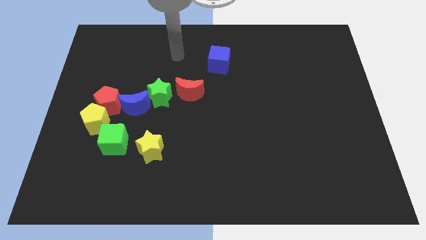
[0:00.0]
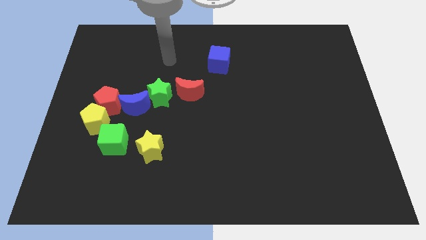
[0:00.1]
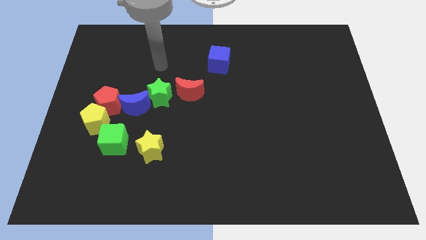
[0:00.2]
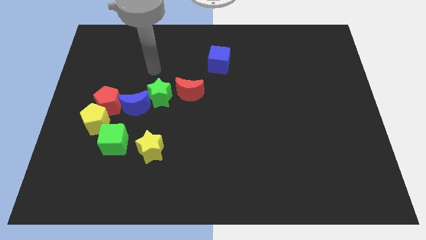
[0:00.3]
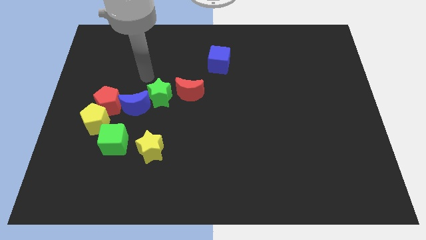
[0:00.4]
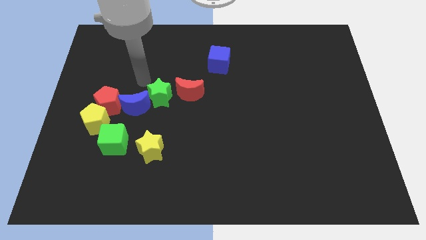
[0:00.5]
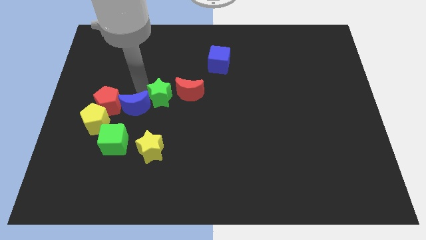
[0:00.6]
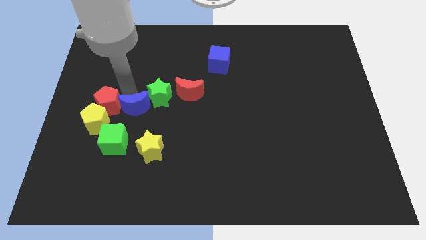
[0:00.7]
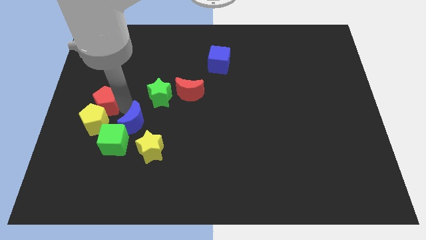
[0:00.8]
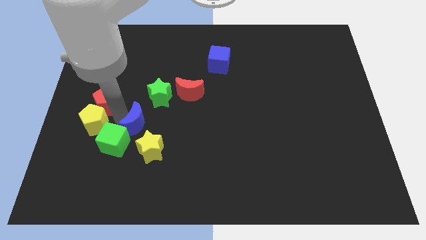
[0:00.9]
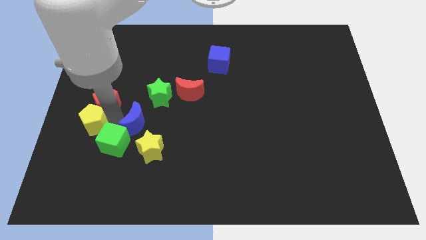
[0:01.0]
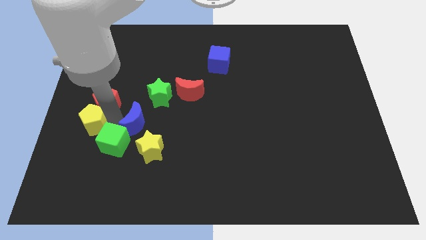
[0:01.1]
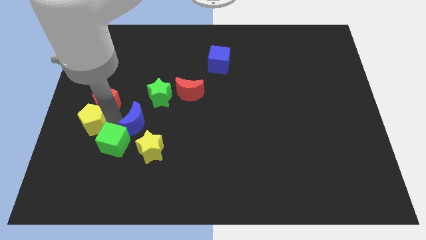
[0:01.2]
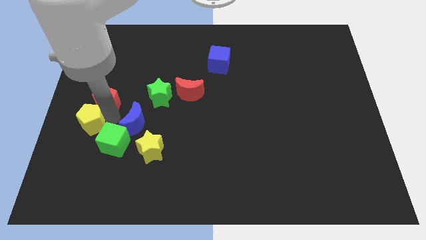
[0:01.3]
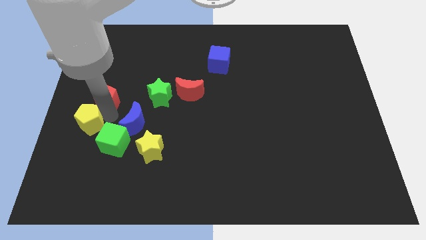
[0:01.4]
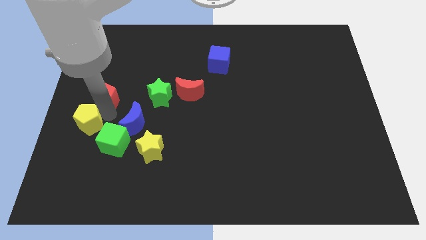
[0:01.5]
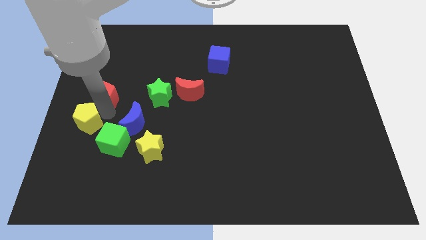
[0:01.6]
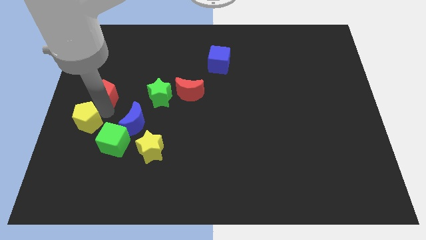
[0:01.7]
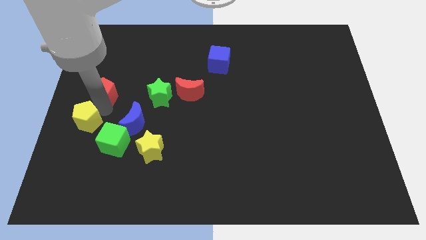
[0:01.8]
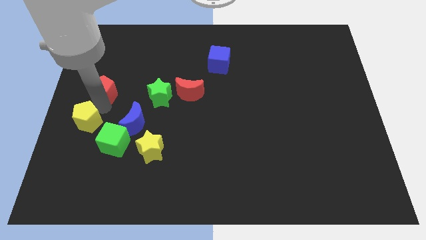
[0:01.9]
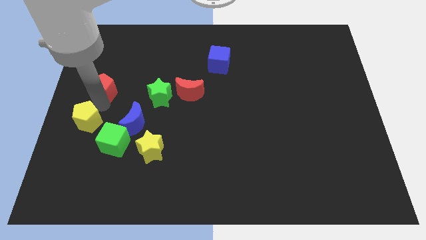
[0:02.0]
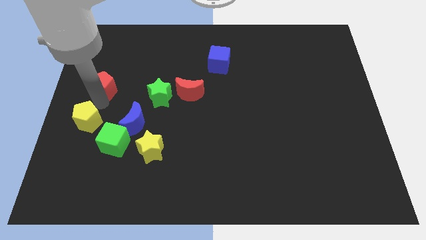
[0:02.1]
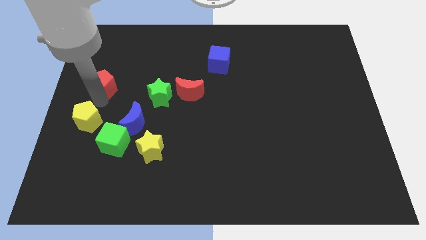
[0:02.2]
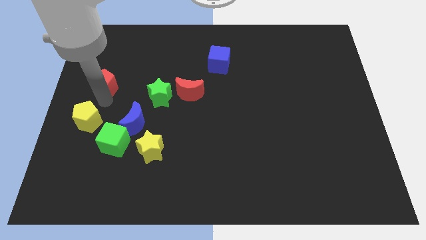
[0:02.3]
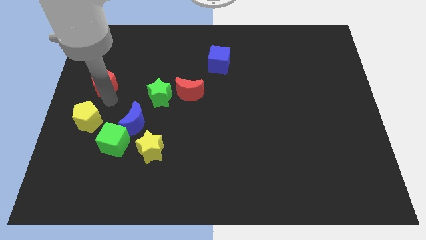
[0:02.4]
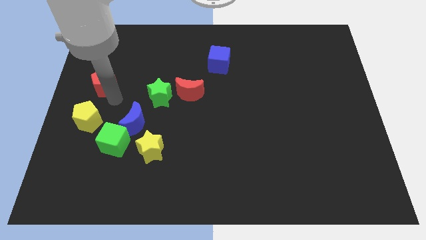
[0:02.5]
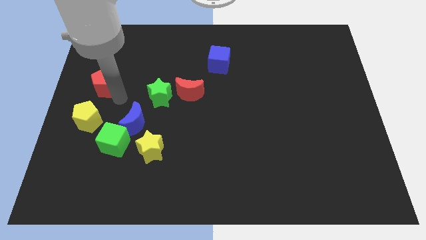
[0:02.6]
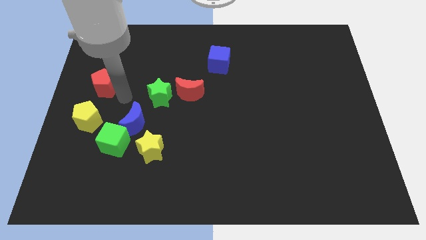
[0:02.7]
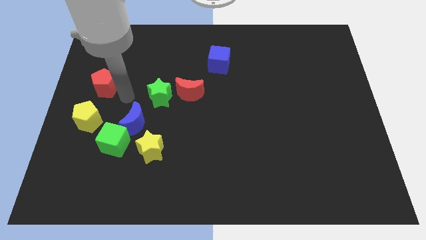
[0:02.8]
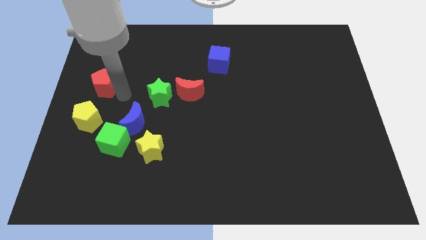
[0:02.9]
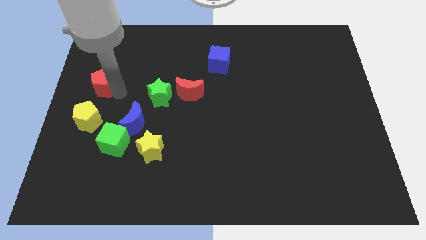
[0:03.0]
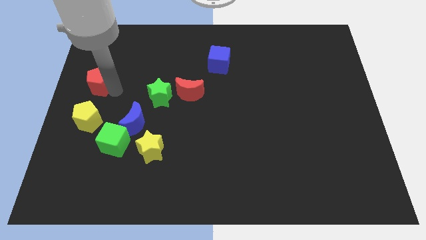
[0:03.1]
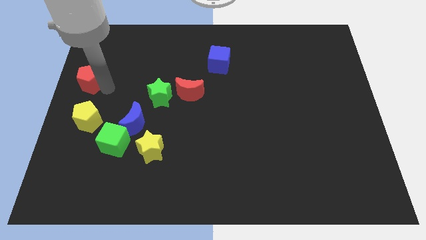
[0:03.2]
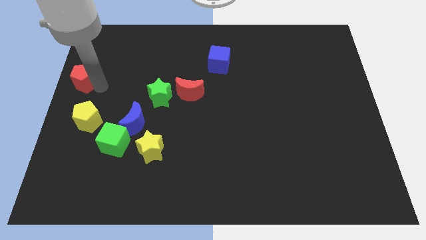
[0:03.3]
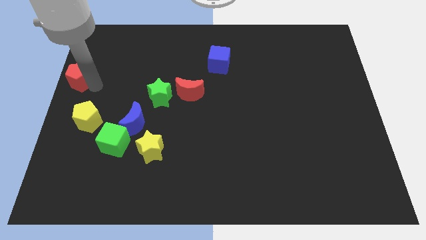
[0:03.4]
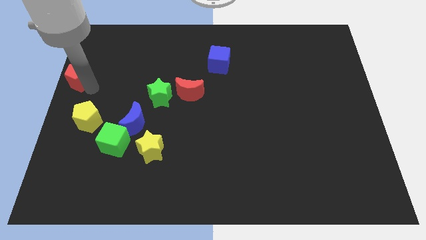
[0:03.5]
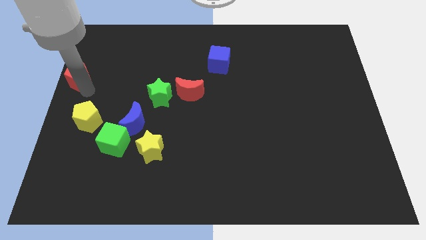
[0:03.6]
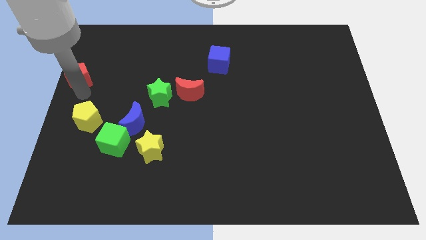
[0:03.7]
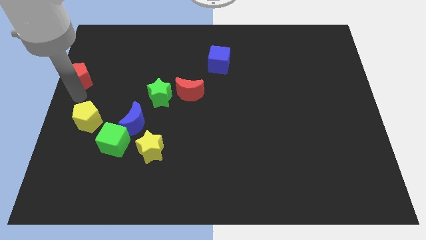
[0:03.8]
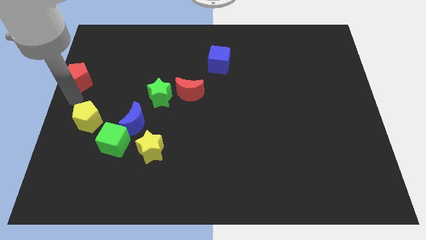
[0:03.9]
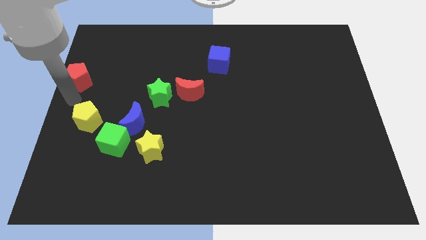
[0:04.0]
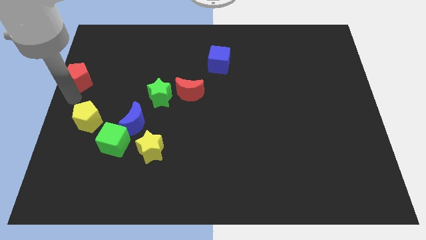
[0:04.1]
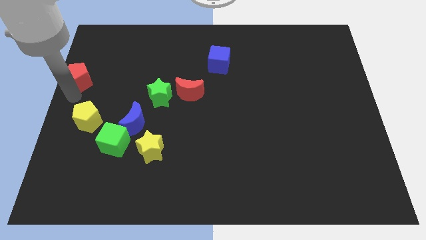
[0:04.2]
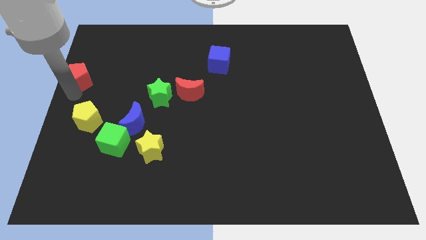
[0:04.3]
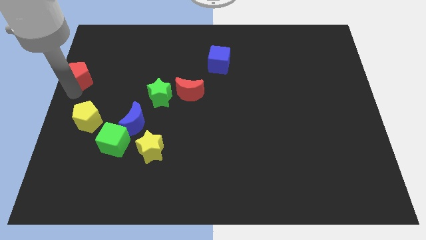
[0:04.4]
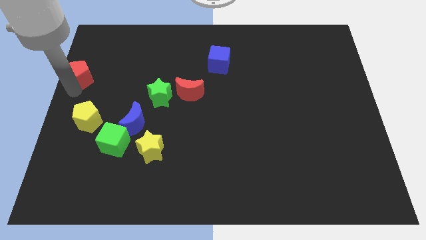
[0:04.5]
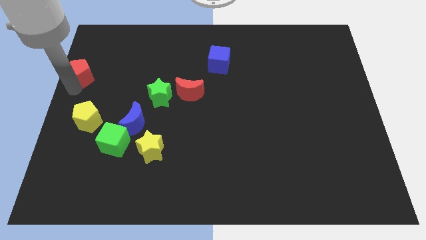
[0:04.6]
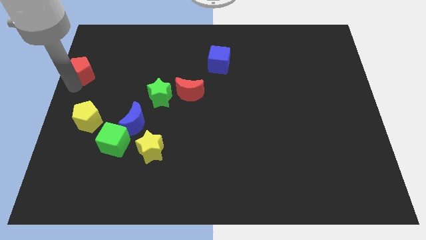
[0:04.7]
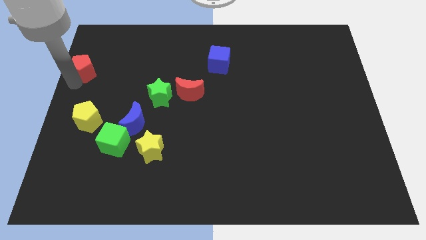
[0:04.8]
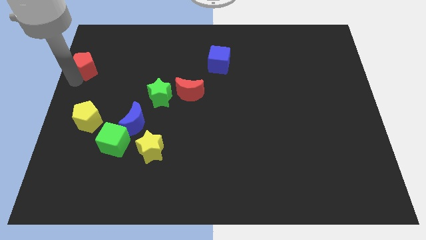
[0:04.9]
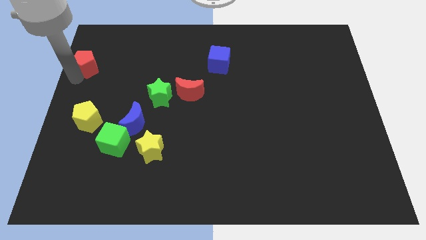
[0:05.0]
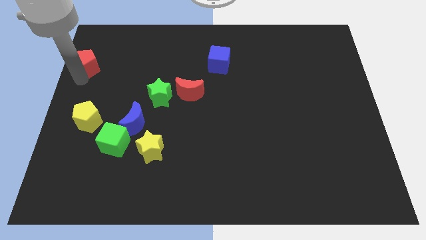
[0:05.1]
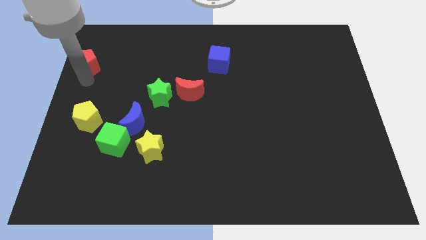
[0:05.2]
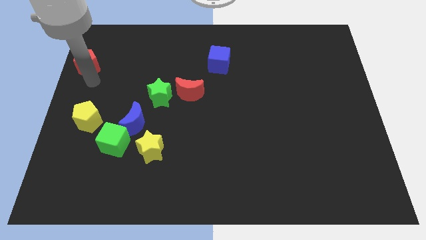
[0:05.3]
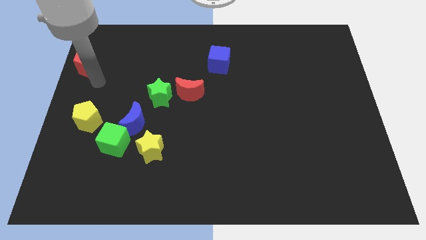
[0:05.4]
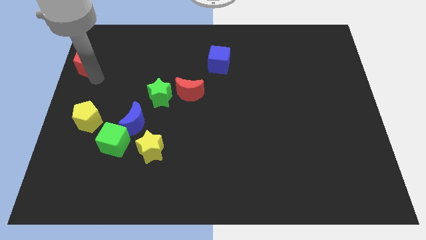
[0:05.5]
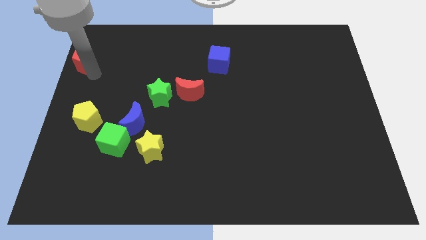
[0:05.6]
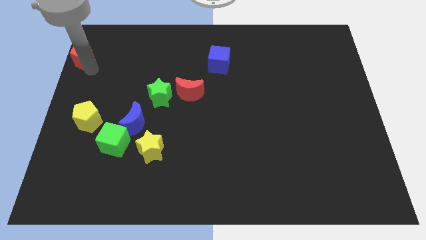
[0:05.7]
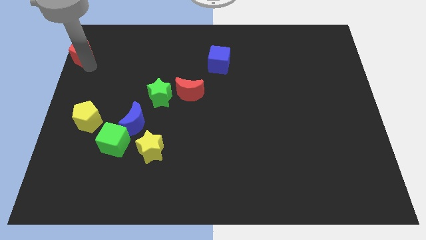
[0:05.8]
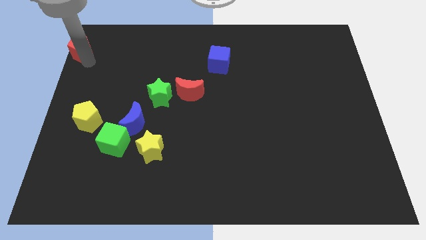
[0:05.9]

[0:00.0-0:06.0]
put the red pentagon to the top left corner

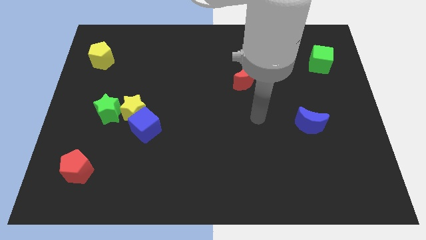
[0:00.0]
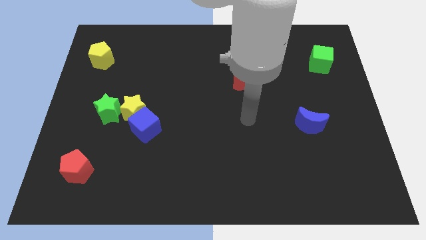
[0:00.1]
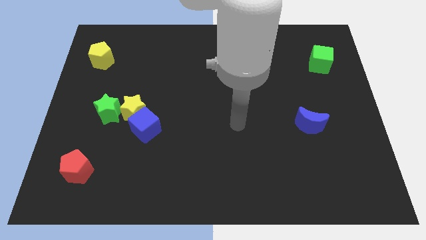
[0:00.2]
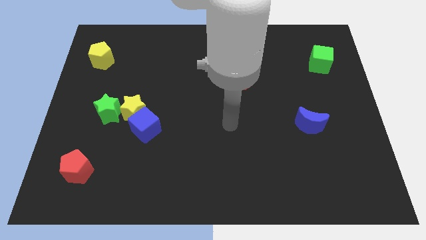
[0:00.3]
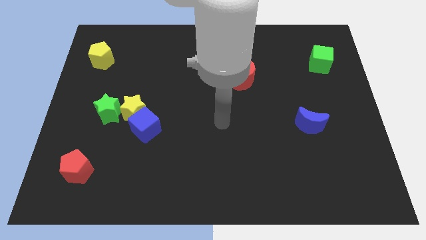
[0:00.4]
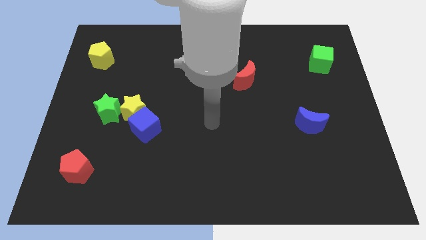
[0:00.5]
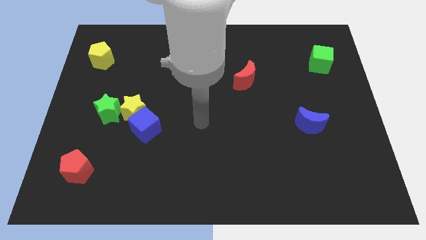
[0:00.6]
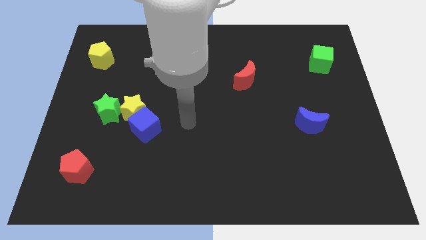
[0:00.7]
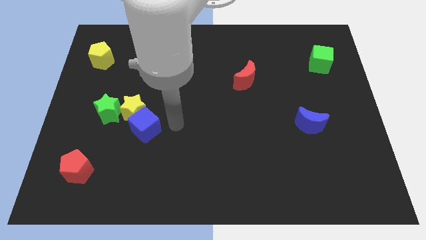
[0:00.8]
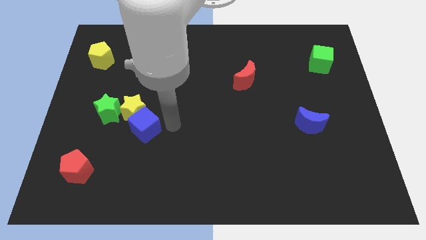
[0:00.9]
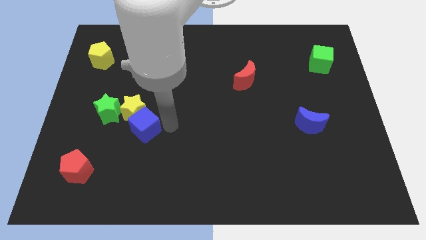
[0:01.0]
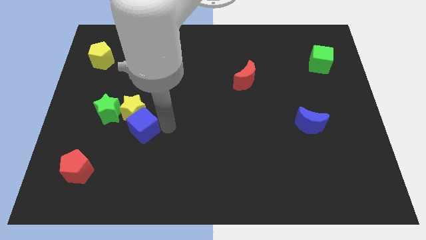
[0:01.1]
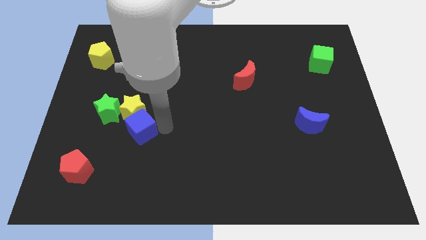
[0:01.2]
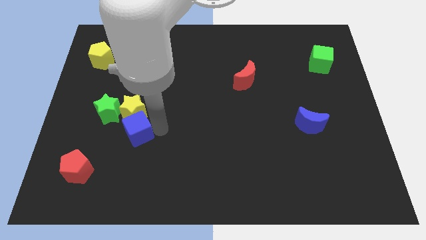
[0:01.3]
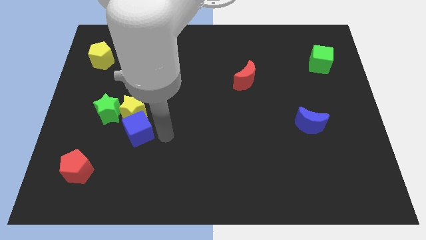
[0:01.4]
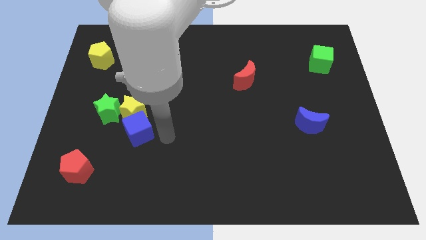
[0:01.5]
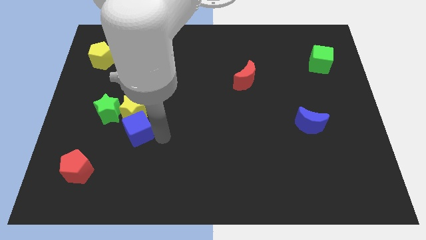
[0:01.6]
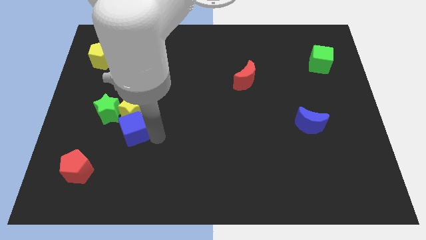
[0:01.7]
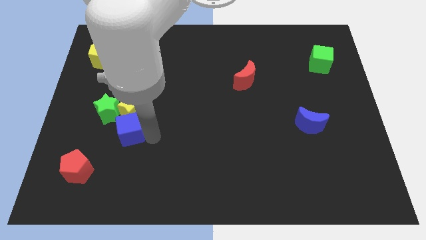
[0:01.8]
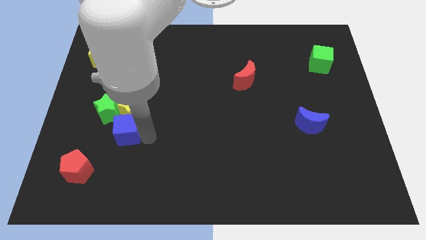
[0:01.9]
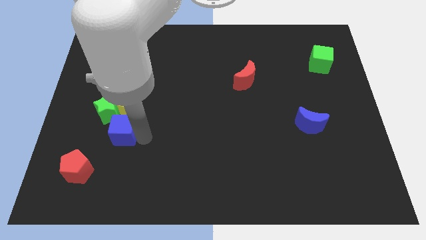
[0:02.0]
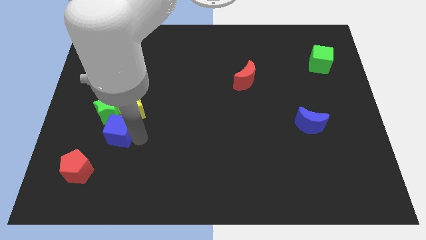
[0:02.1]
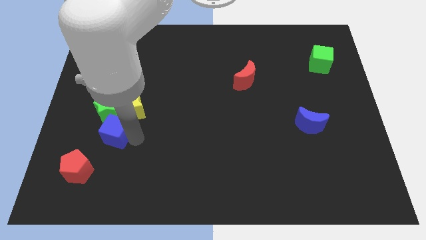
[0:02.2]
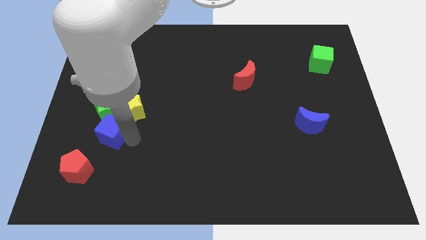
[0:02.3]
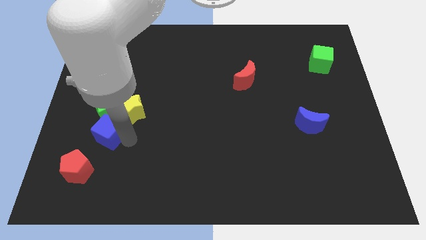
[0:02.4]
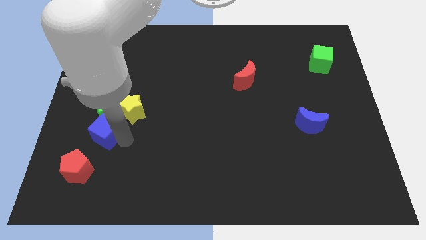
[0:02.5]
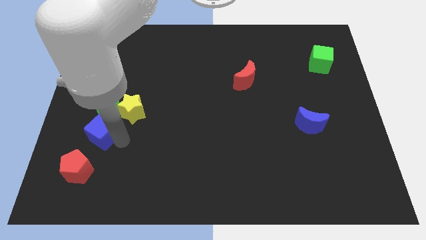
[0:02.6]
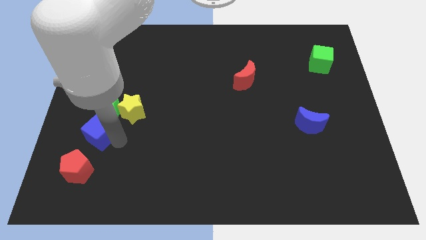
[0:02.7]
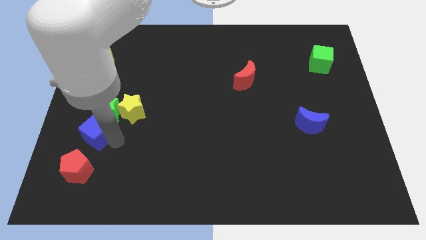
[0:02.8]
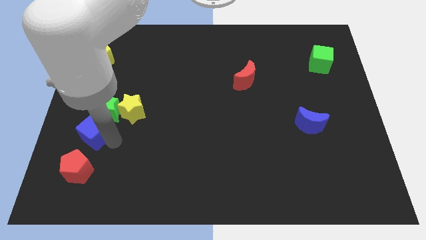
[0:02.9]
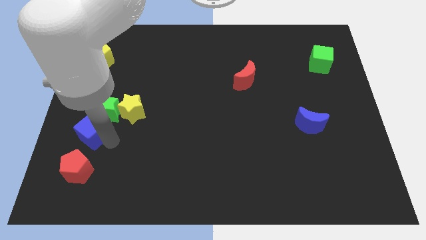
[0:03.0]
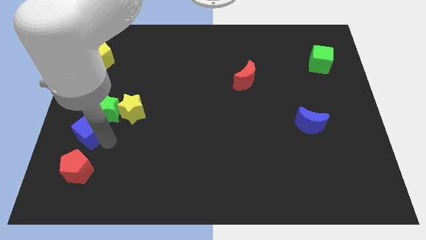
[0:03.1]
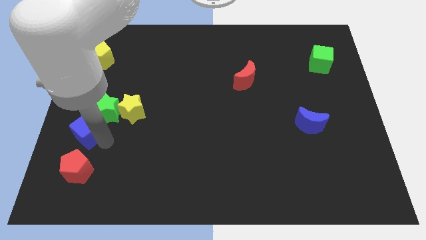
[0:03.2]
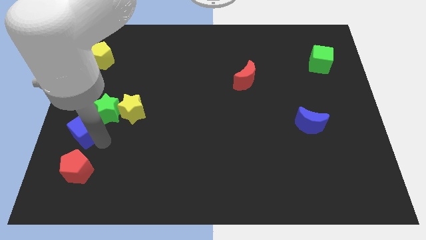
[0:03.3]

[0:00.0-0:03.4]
push the blue cube to the left side of the board
